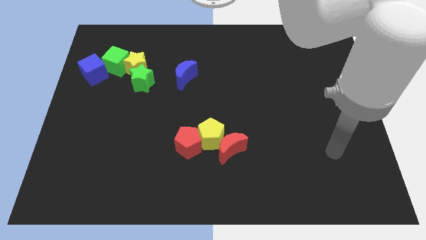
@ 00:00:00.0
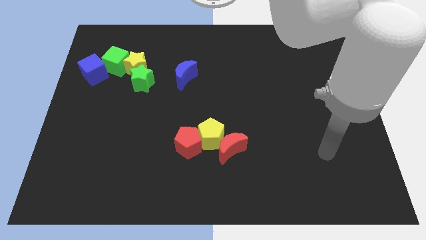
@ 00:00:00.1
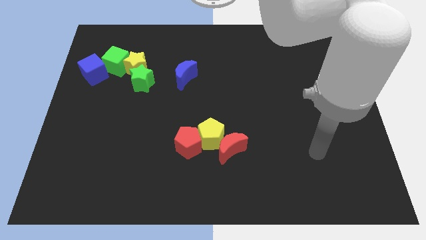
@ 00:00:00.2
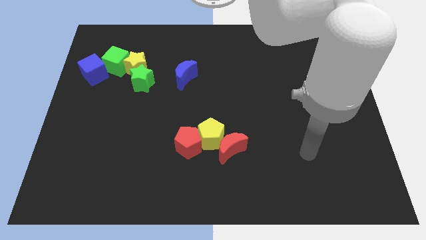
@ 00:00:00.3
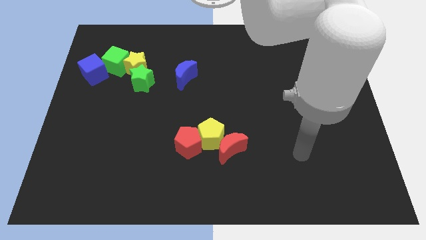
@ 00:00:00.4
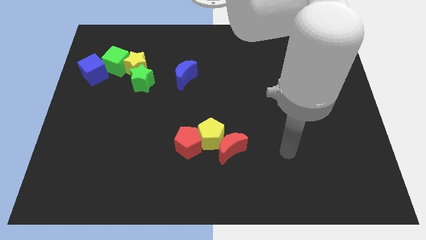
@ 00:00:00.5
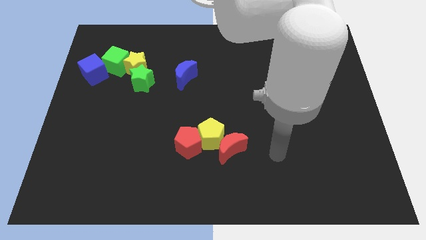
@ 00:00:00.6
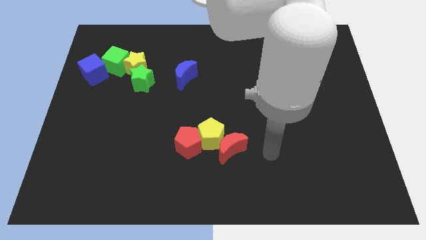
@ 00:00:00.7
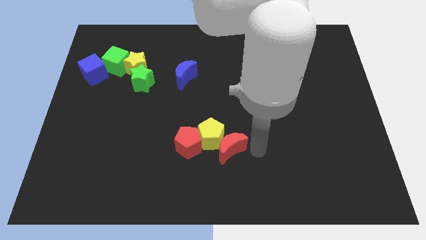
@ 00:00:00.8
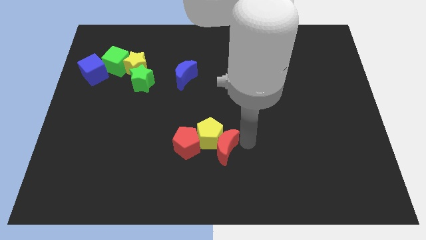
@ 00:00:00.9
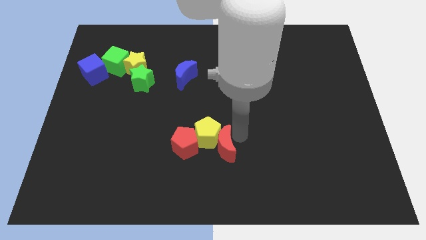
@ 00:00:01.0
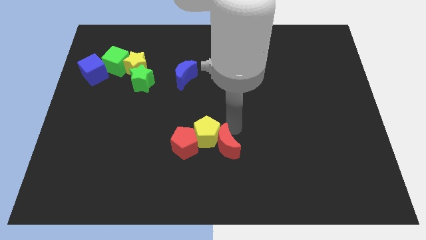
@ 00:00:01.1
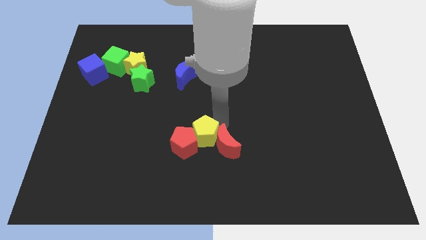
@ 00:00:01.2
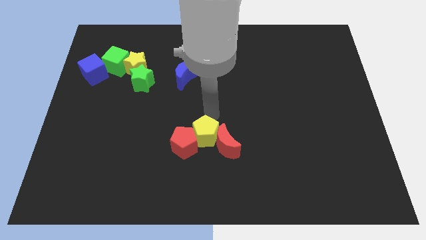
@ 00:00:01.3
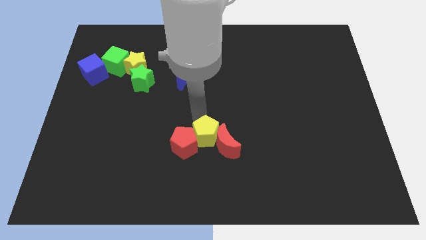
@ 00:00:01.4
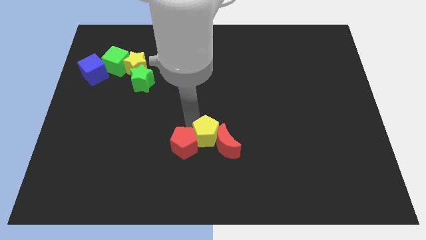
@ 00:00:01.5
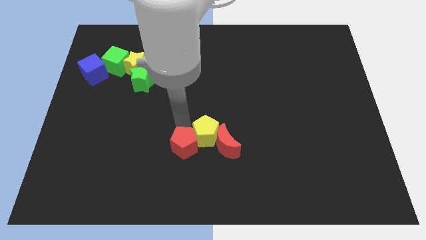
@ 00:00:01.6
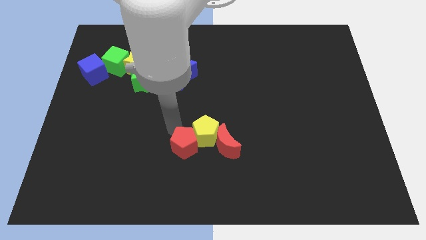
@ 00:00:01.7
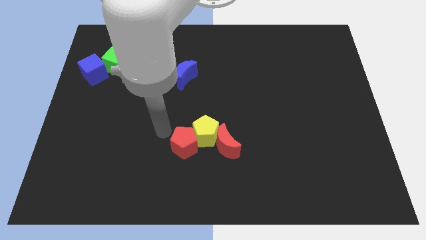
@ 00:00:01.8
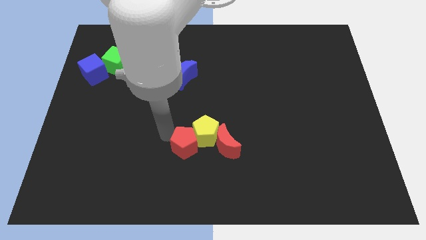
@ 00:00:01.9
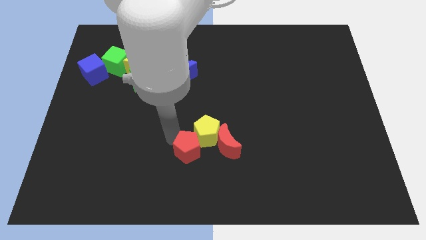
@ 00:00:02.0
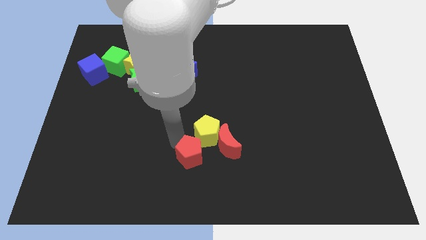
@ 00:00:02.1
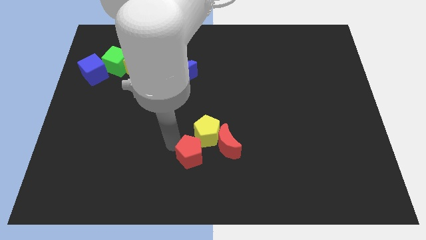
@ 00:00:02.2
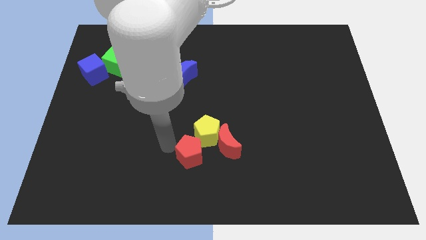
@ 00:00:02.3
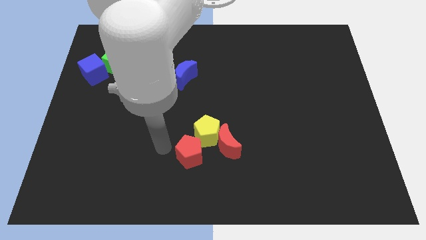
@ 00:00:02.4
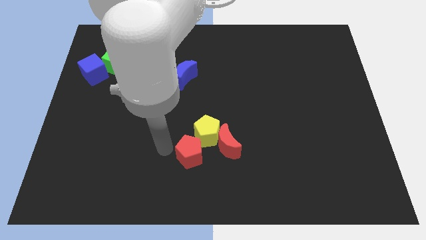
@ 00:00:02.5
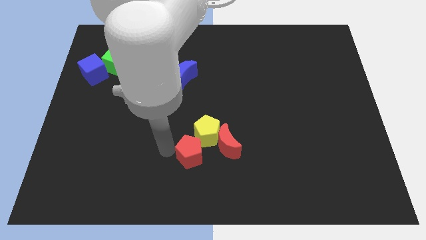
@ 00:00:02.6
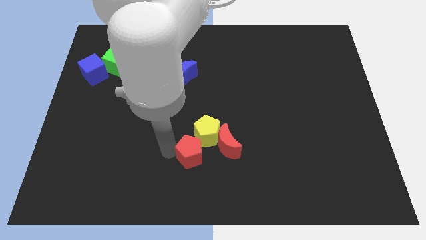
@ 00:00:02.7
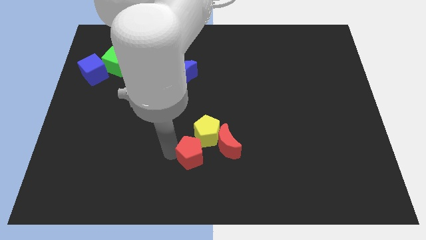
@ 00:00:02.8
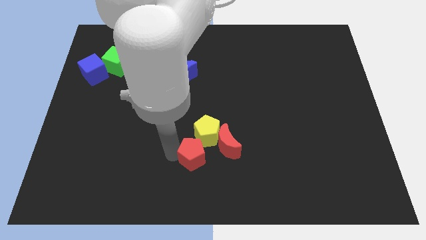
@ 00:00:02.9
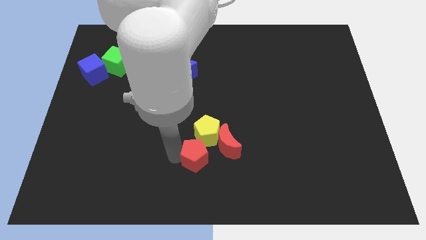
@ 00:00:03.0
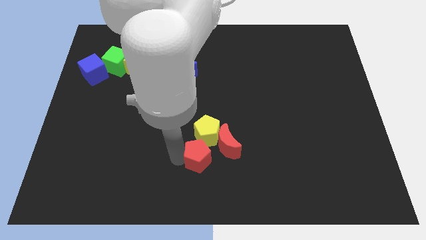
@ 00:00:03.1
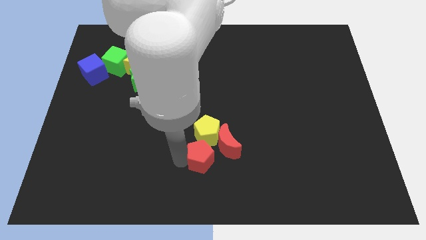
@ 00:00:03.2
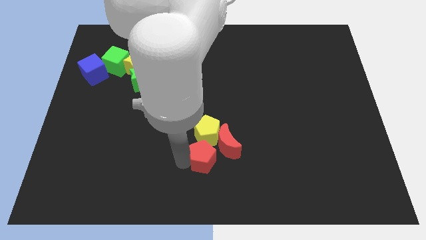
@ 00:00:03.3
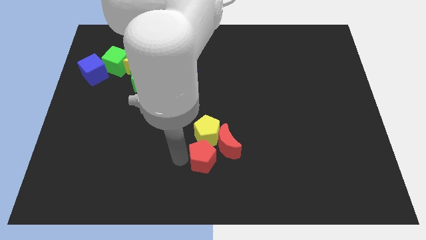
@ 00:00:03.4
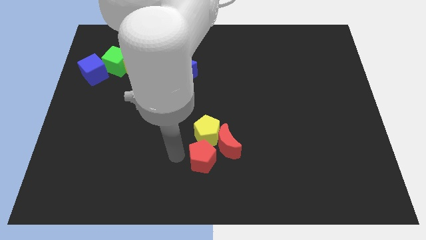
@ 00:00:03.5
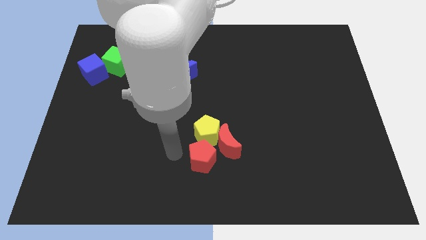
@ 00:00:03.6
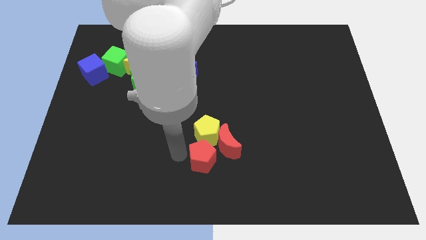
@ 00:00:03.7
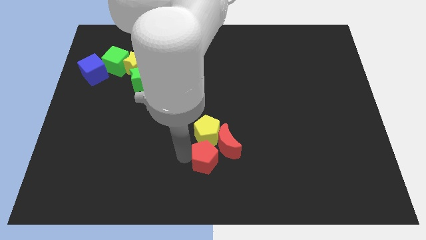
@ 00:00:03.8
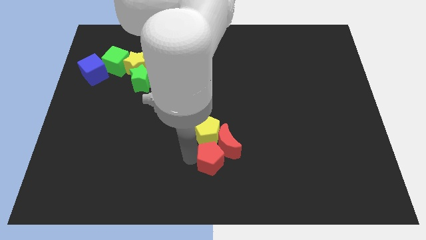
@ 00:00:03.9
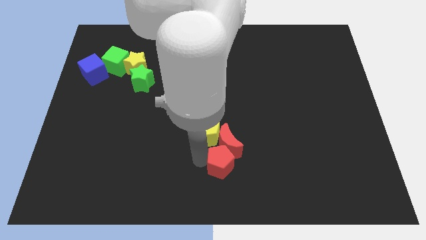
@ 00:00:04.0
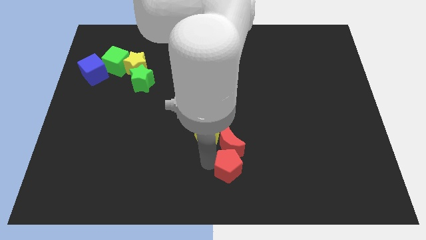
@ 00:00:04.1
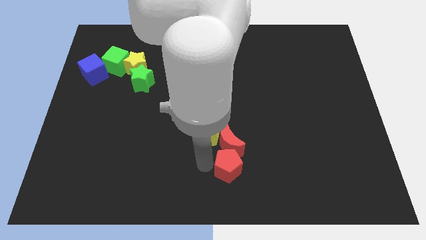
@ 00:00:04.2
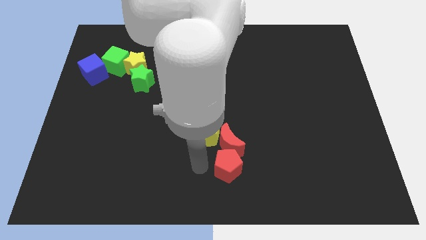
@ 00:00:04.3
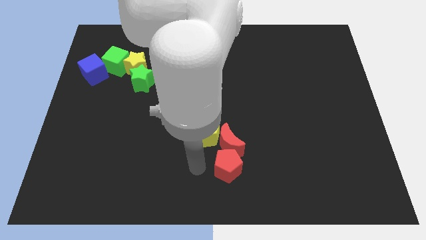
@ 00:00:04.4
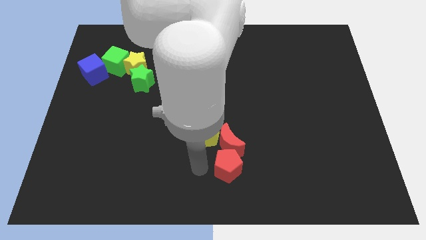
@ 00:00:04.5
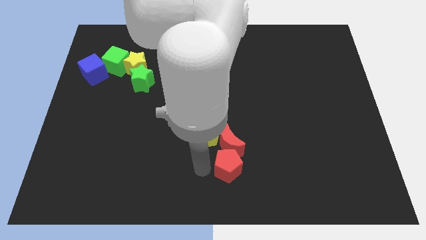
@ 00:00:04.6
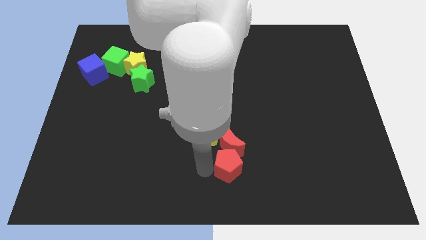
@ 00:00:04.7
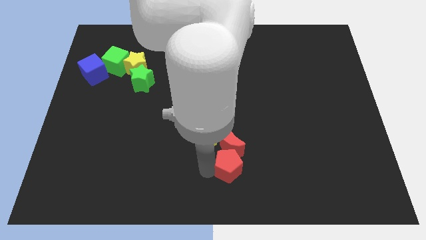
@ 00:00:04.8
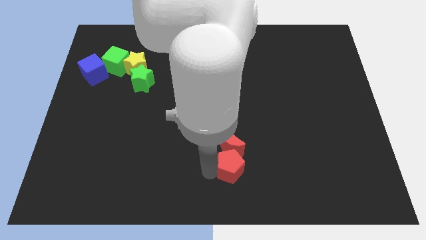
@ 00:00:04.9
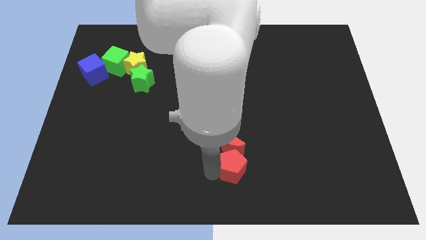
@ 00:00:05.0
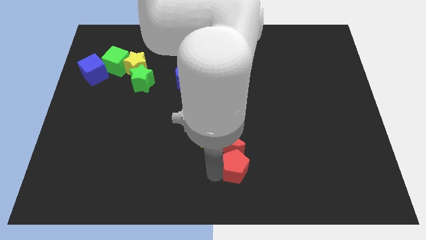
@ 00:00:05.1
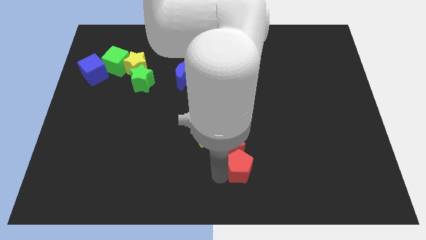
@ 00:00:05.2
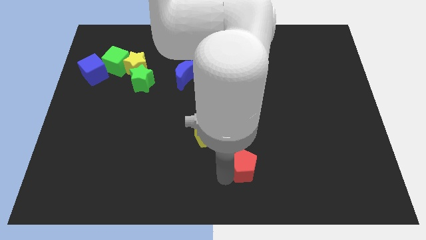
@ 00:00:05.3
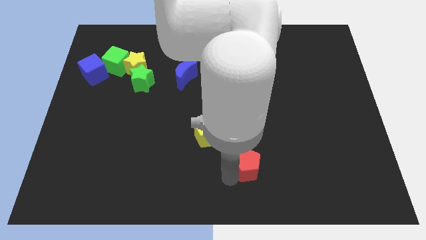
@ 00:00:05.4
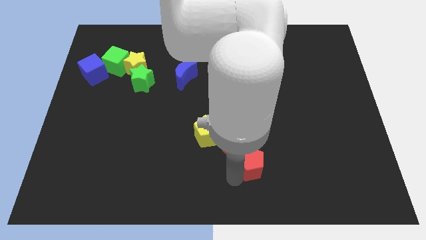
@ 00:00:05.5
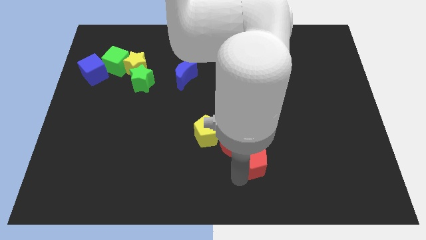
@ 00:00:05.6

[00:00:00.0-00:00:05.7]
push the red pentagon just right of the red moon

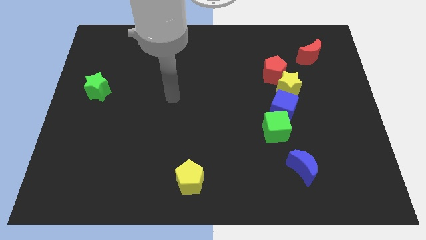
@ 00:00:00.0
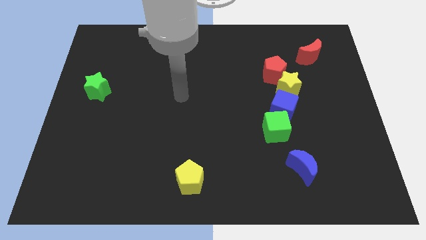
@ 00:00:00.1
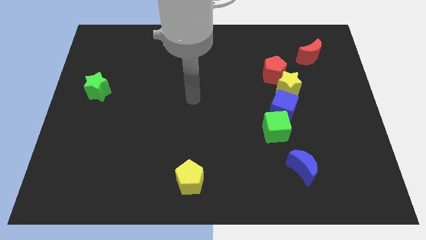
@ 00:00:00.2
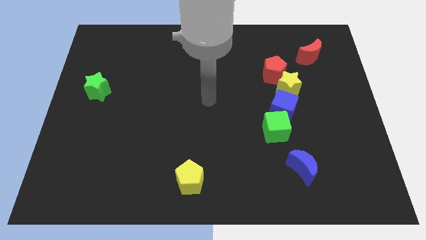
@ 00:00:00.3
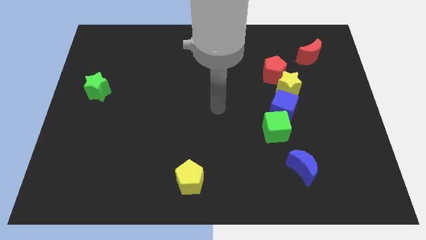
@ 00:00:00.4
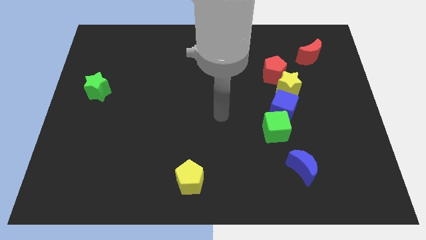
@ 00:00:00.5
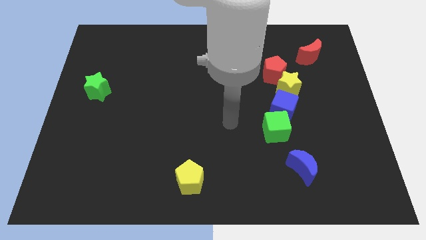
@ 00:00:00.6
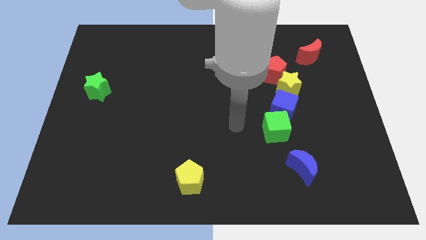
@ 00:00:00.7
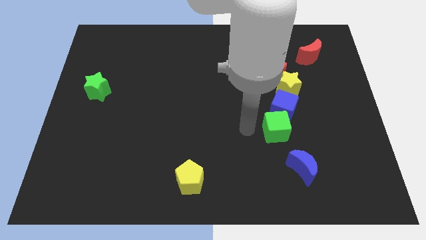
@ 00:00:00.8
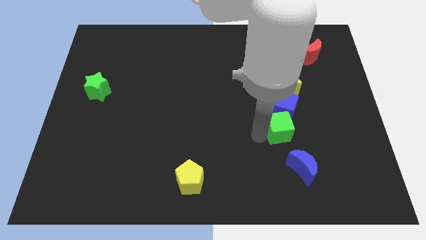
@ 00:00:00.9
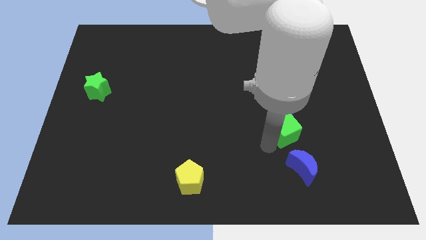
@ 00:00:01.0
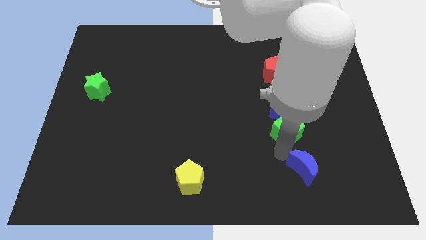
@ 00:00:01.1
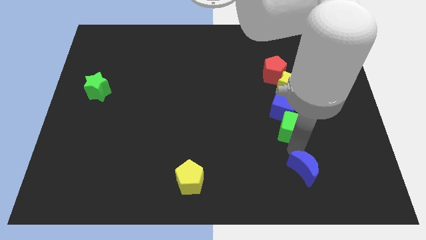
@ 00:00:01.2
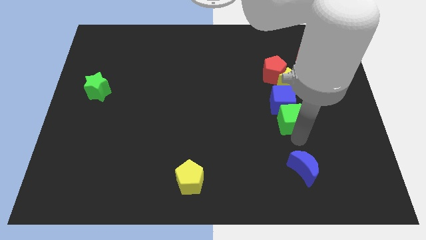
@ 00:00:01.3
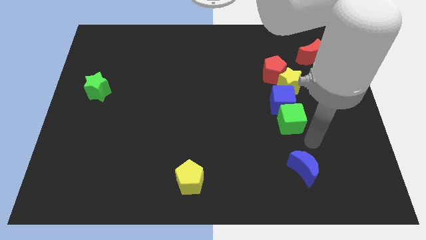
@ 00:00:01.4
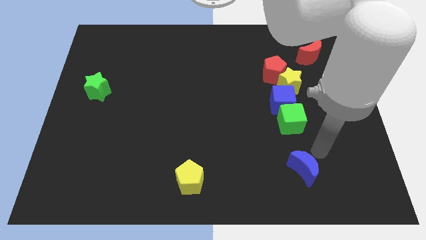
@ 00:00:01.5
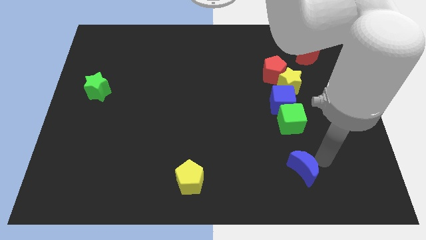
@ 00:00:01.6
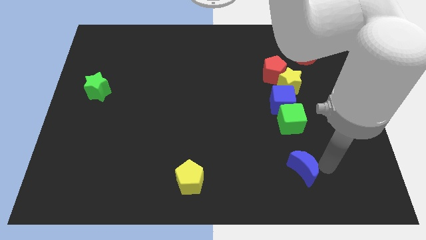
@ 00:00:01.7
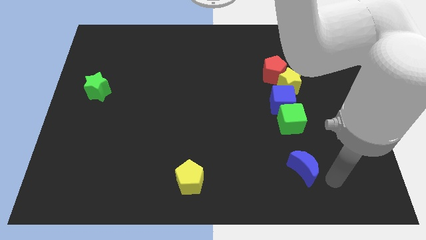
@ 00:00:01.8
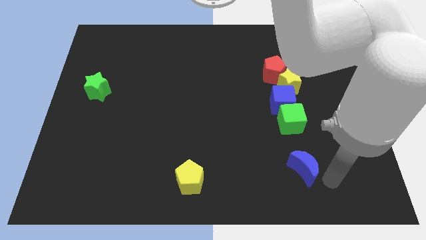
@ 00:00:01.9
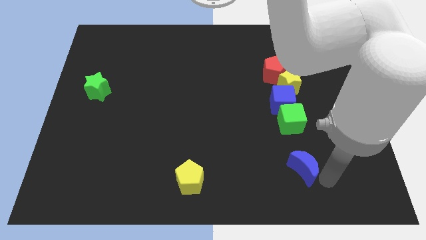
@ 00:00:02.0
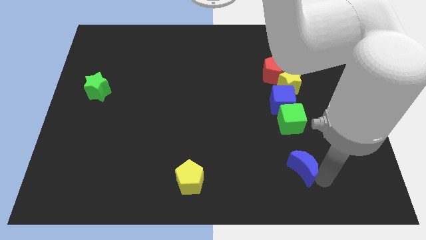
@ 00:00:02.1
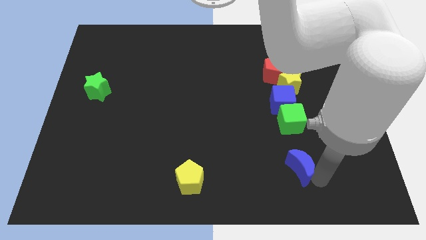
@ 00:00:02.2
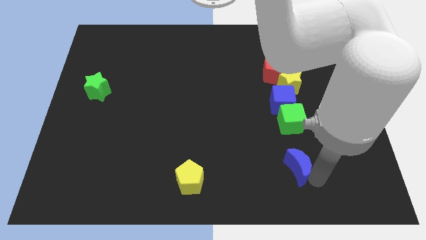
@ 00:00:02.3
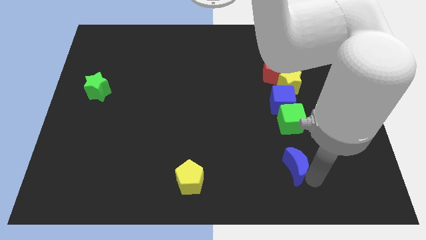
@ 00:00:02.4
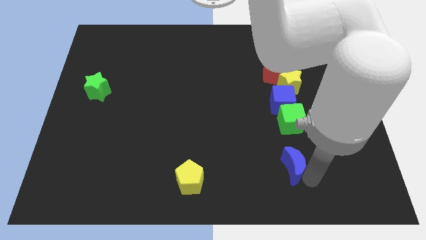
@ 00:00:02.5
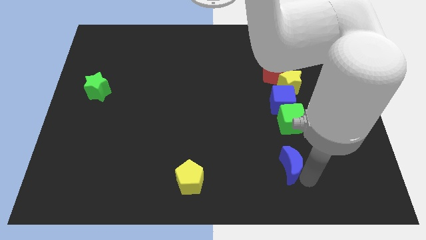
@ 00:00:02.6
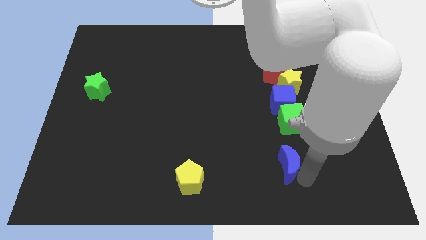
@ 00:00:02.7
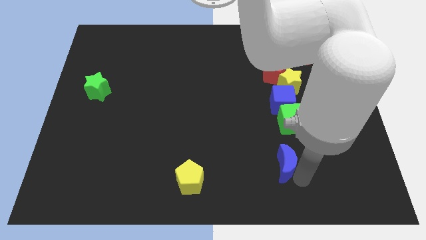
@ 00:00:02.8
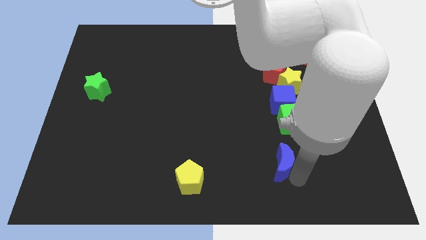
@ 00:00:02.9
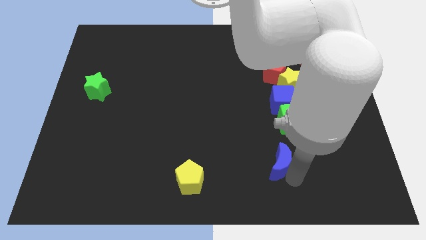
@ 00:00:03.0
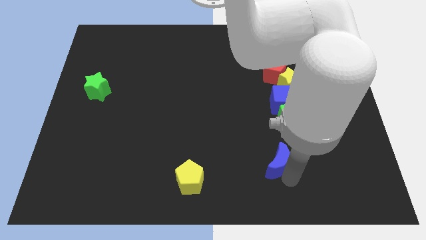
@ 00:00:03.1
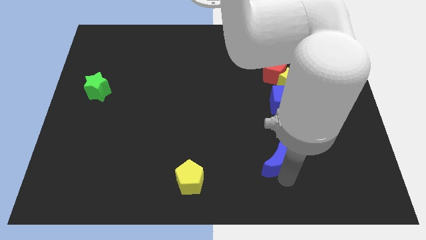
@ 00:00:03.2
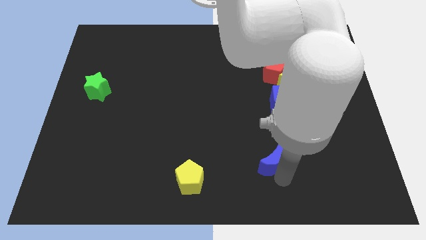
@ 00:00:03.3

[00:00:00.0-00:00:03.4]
put the blue moon to the bottom left side of the green cube
